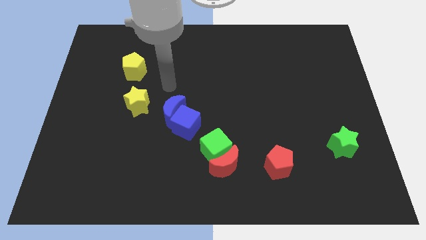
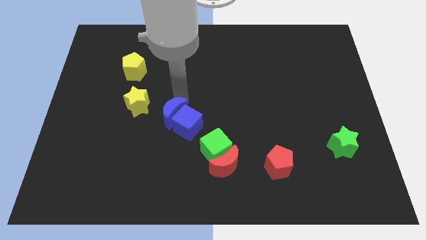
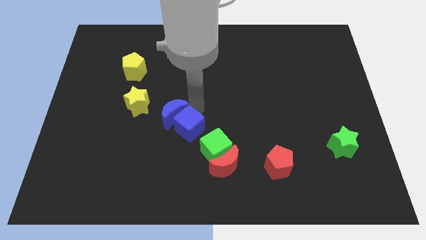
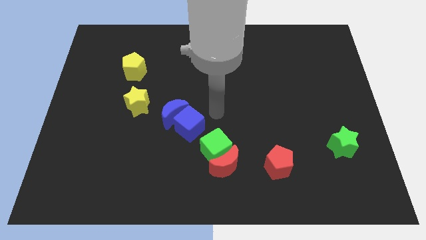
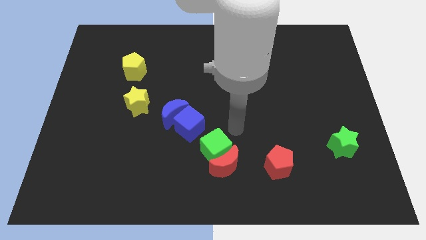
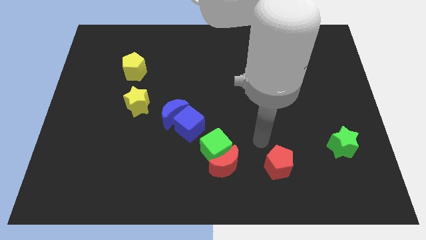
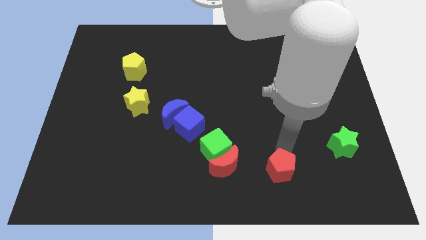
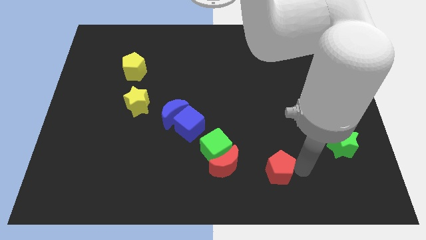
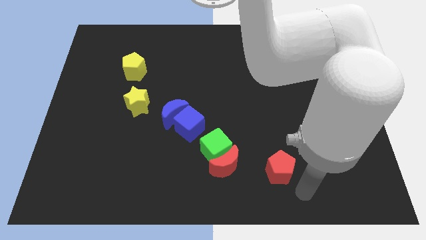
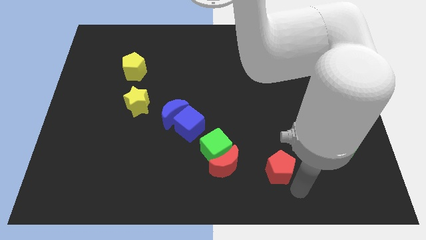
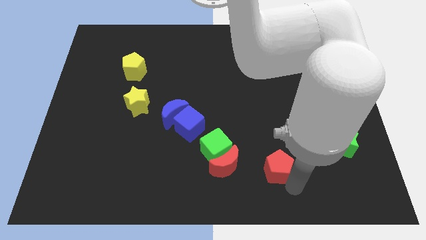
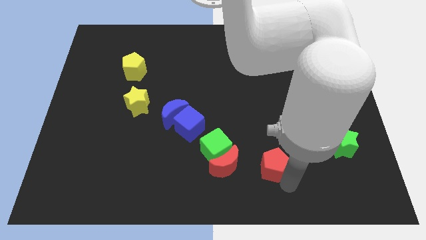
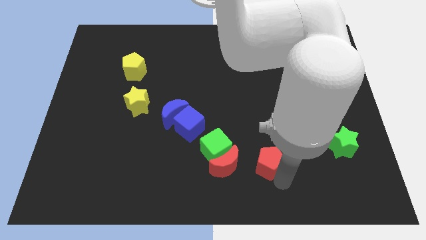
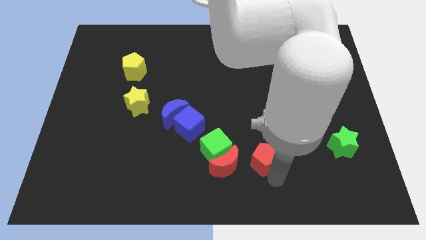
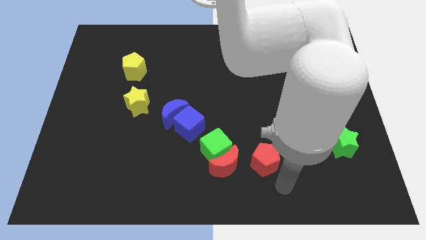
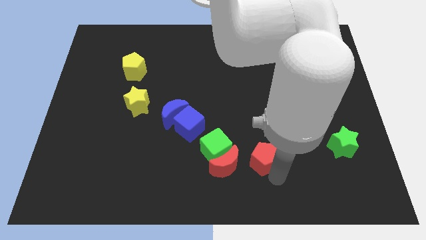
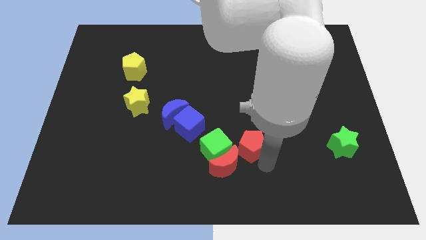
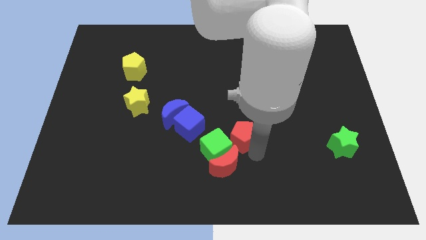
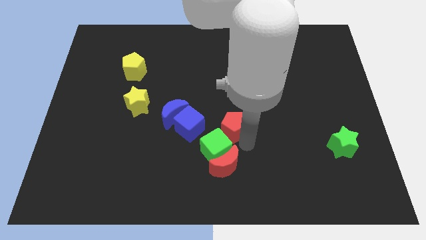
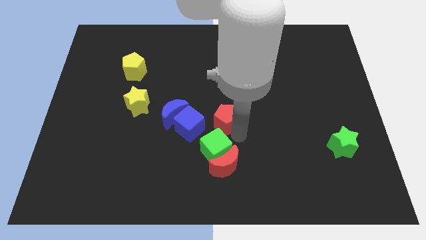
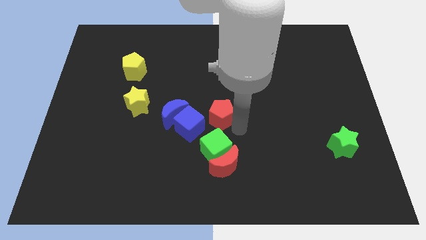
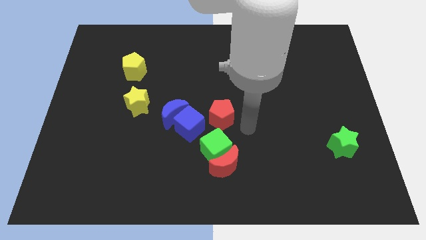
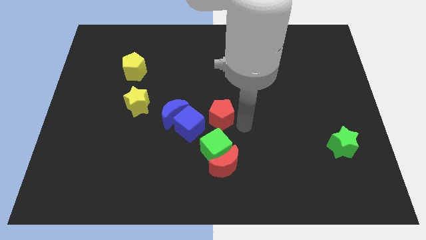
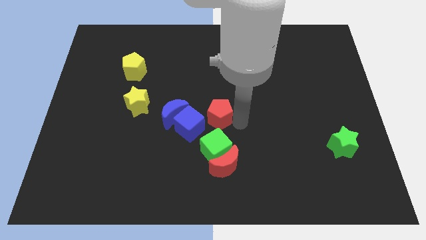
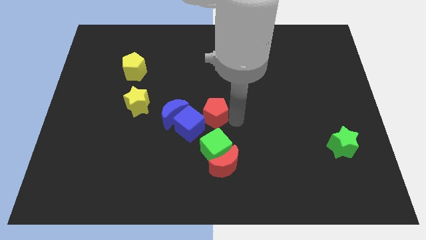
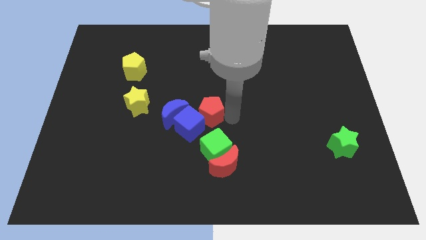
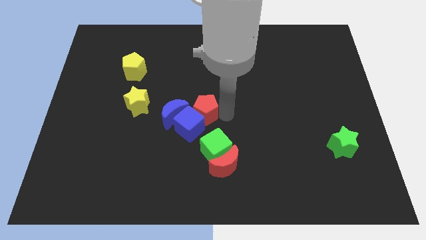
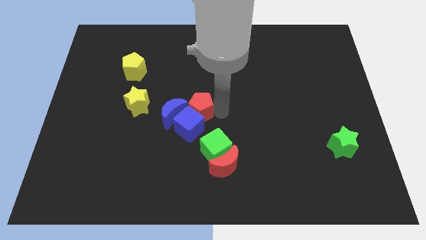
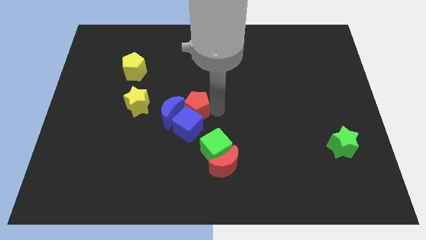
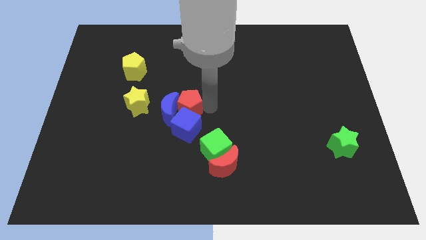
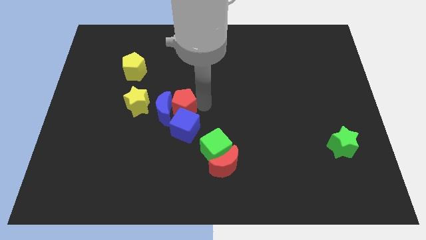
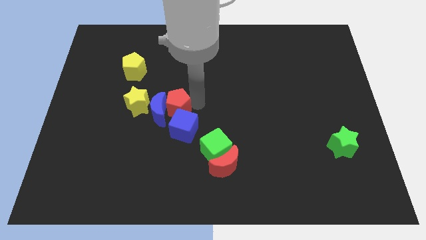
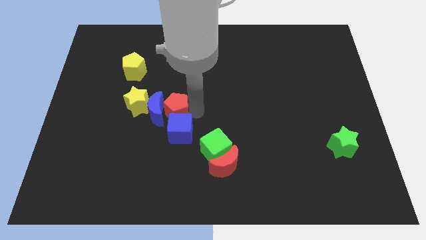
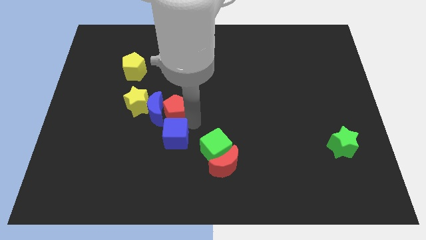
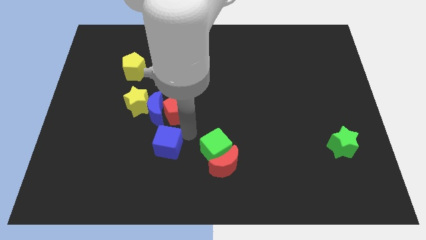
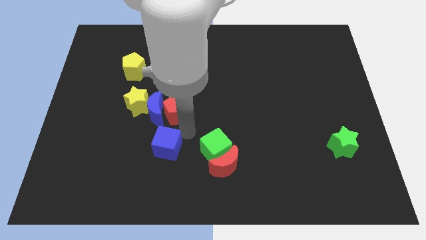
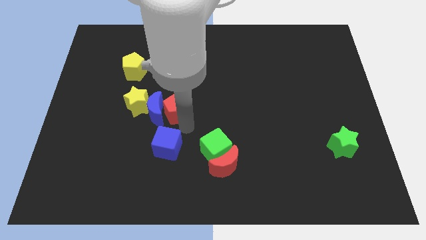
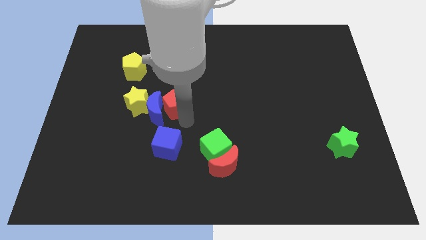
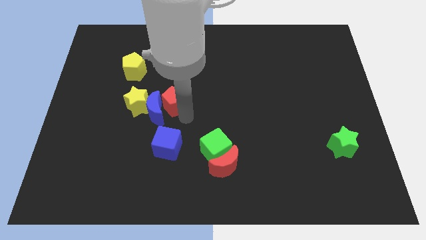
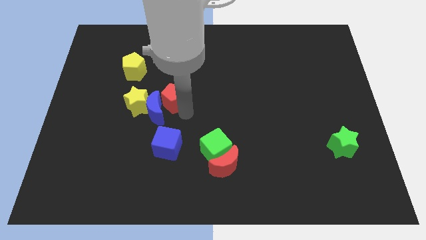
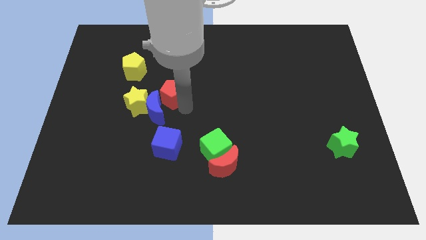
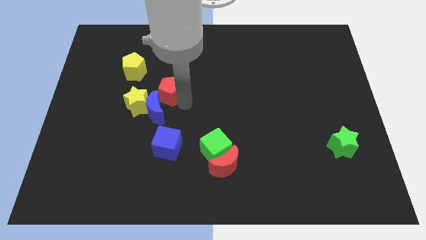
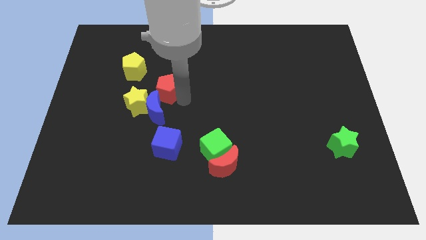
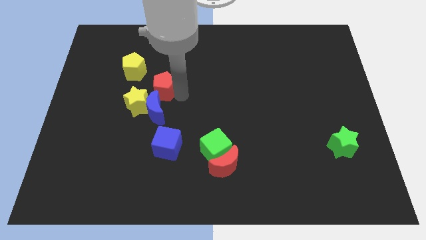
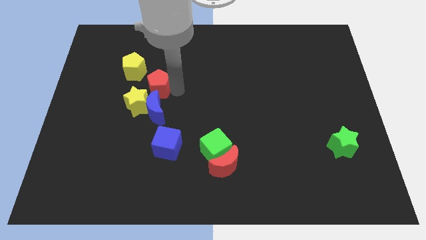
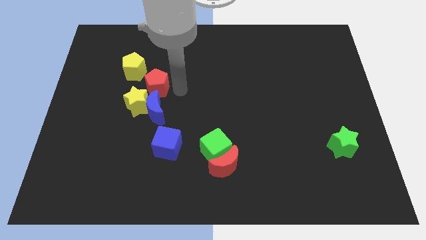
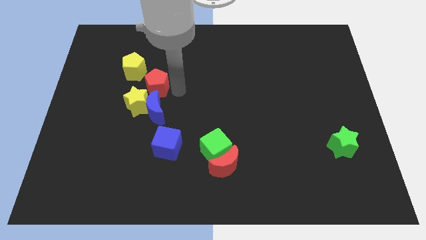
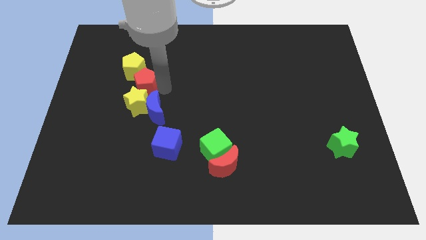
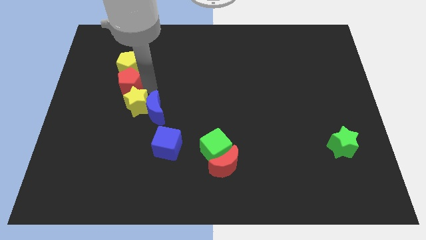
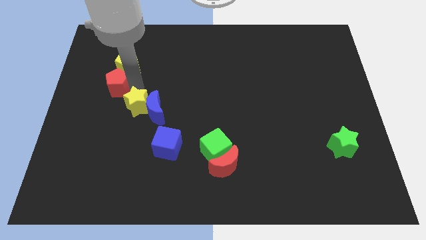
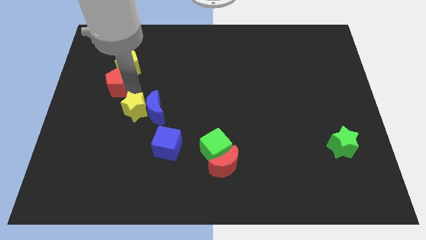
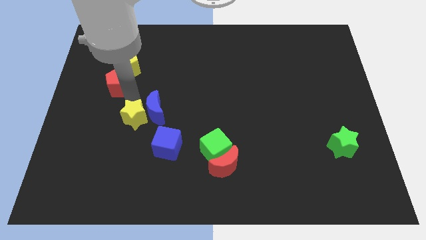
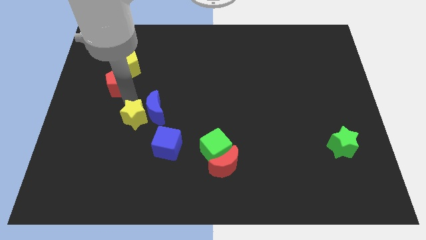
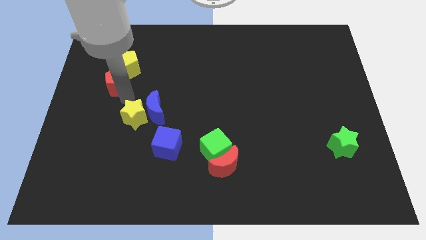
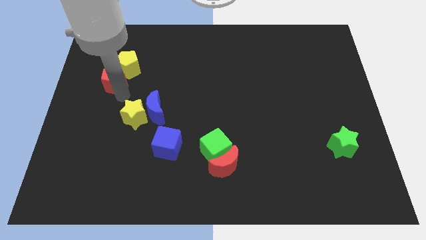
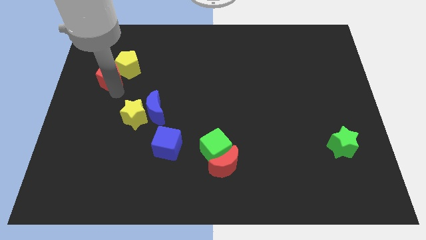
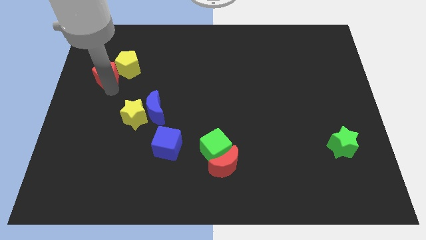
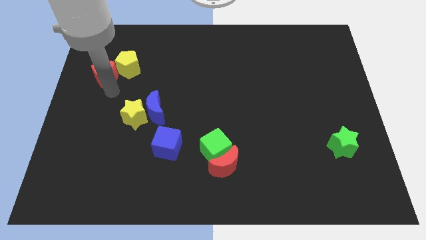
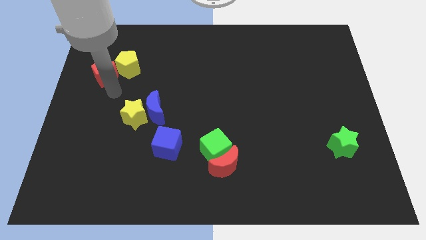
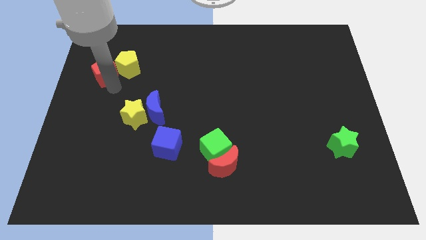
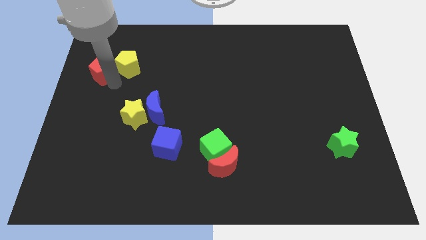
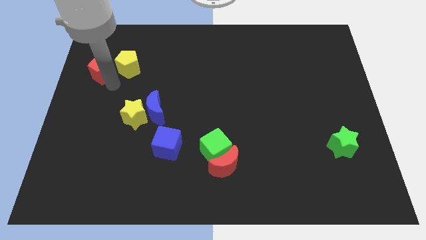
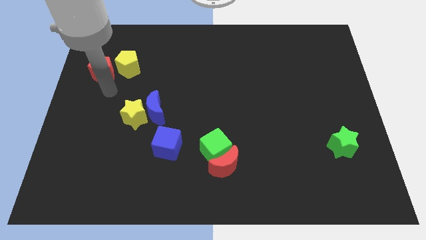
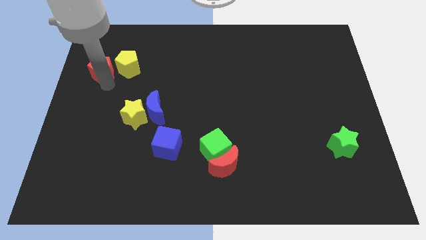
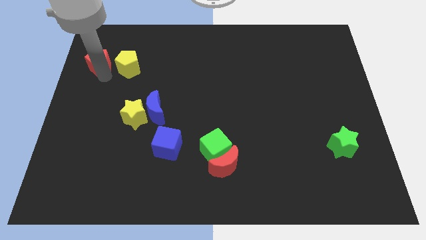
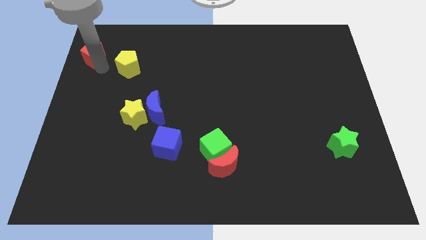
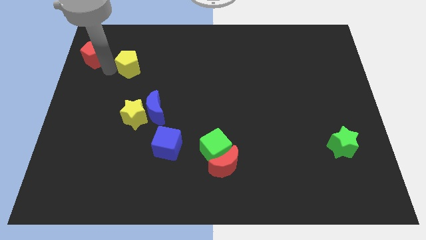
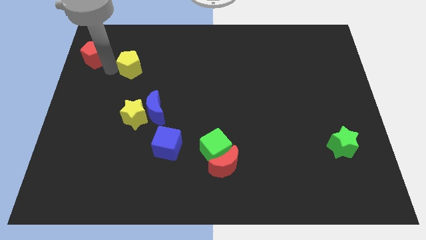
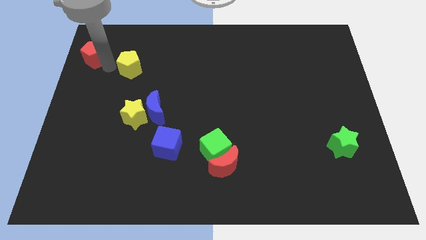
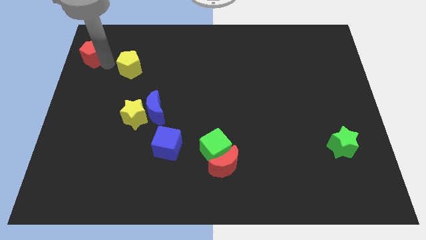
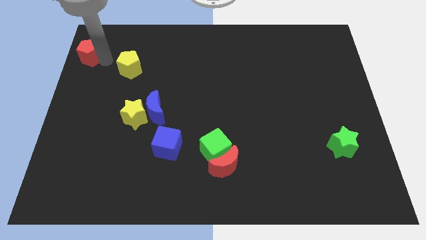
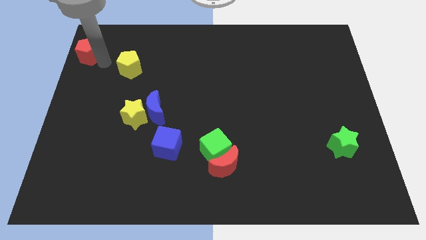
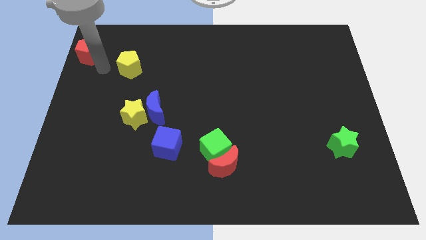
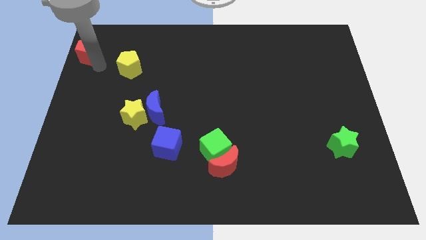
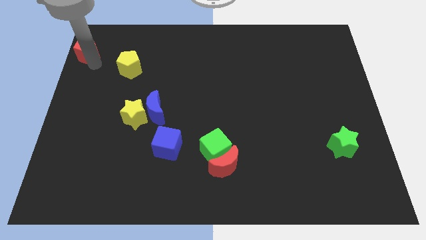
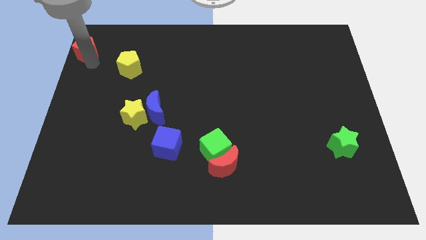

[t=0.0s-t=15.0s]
slide the red pentagon to the top left
